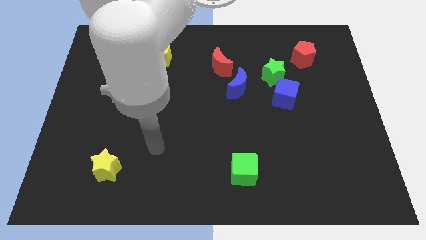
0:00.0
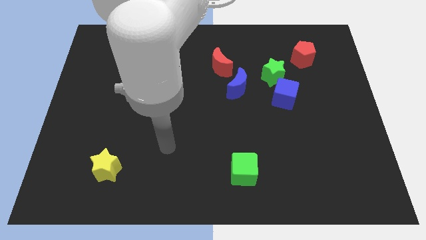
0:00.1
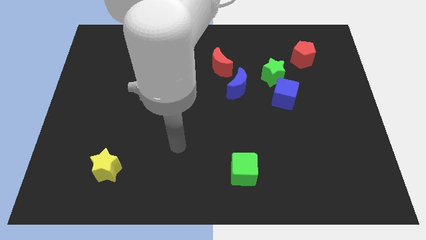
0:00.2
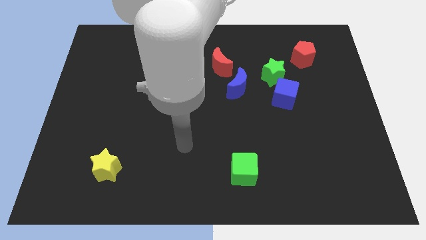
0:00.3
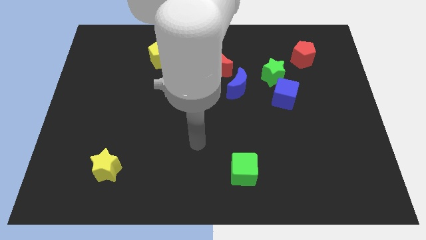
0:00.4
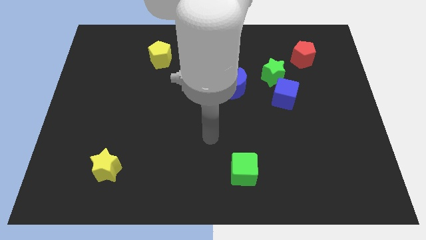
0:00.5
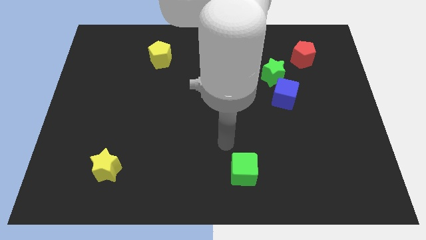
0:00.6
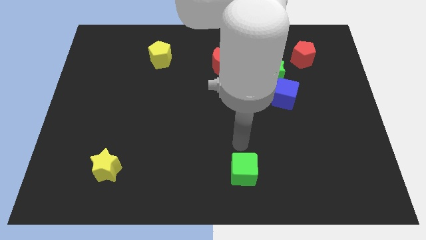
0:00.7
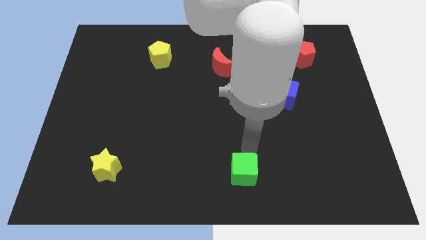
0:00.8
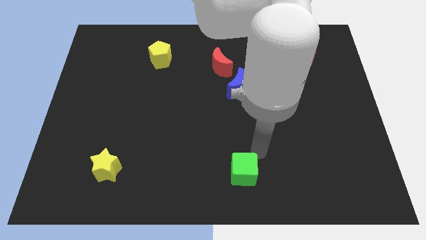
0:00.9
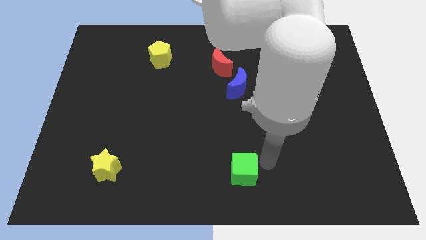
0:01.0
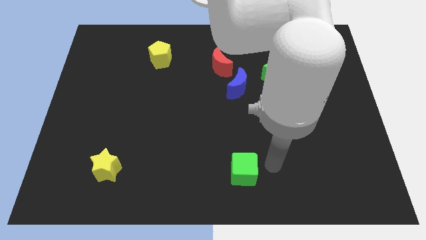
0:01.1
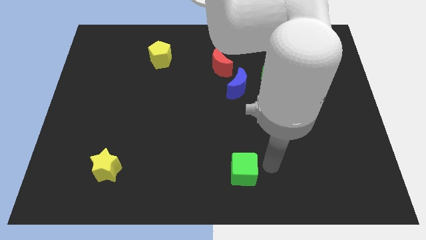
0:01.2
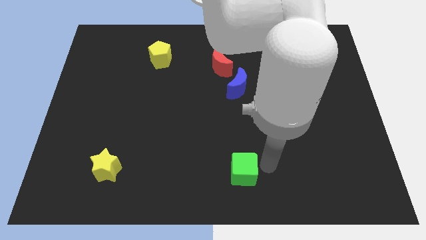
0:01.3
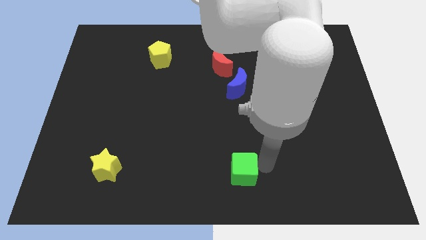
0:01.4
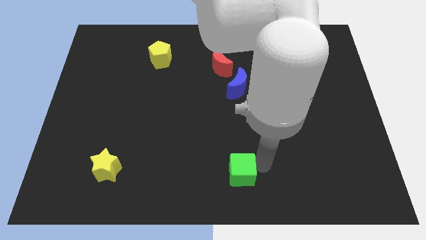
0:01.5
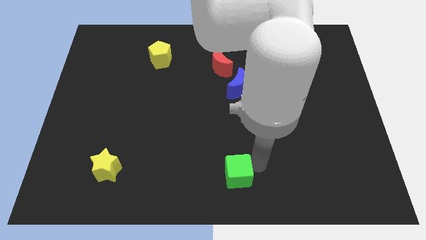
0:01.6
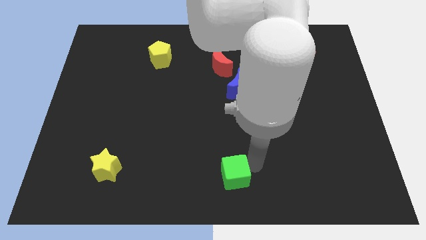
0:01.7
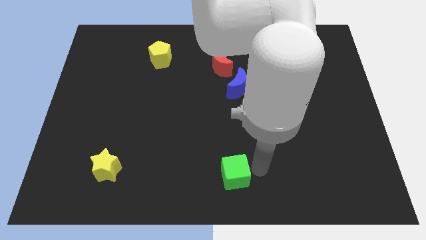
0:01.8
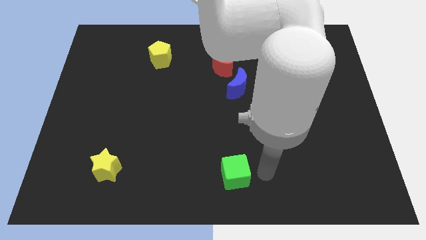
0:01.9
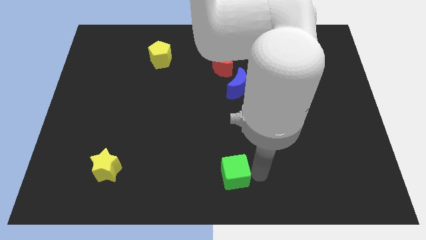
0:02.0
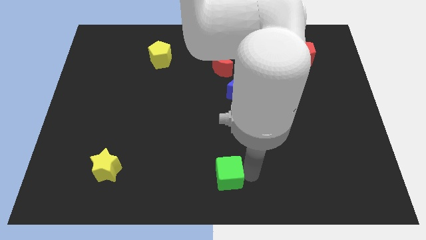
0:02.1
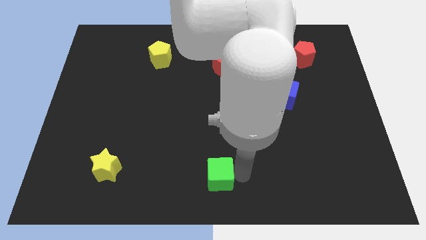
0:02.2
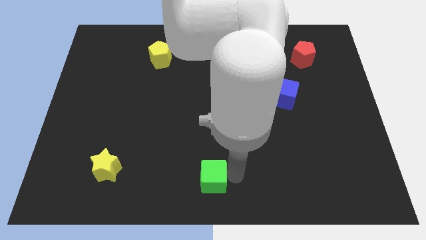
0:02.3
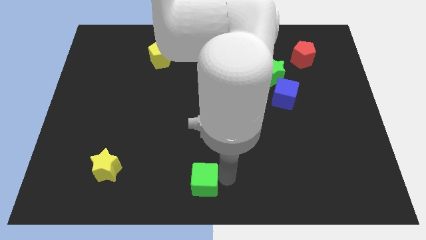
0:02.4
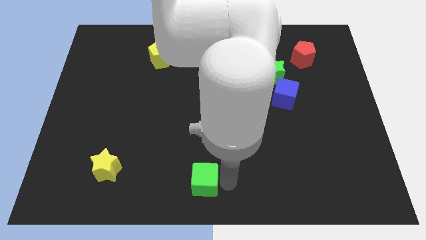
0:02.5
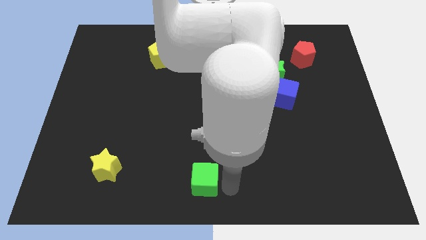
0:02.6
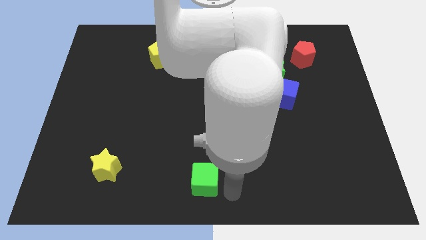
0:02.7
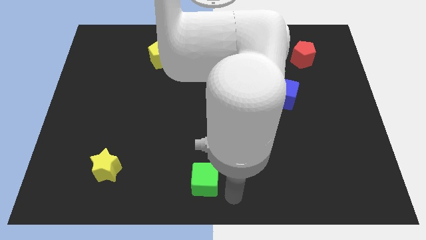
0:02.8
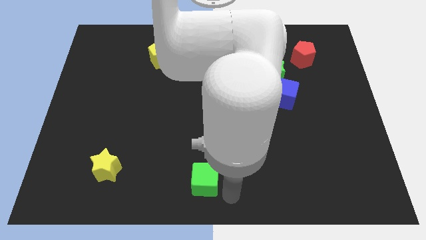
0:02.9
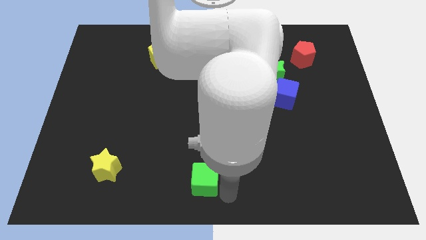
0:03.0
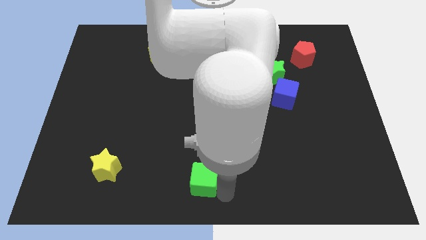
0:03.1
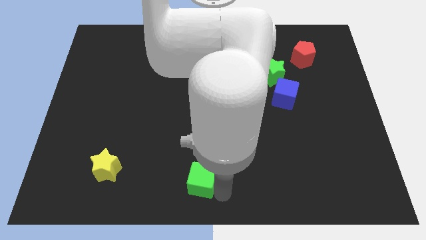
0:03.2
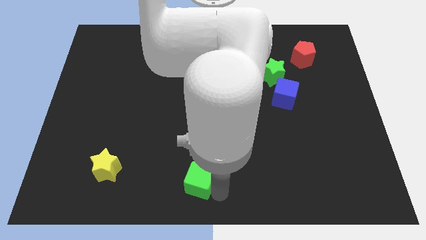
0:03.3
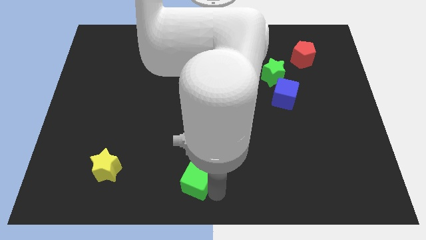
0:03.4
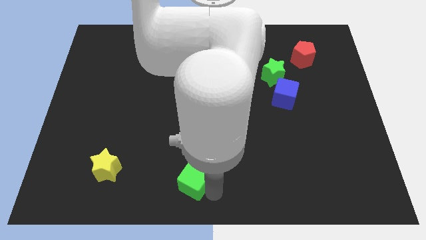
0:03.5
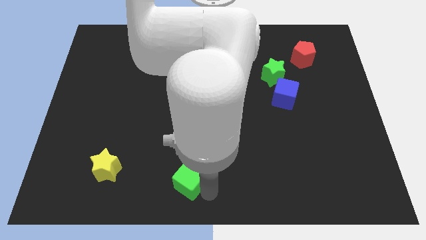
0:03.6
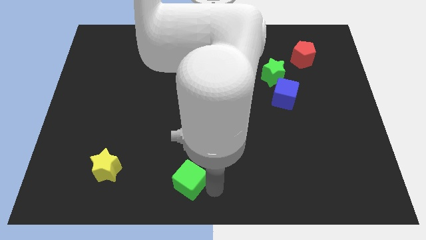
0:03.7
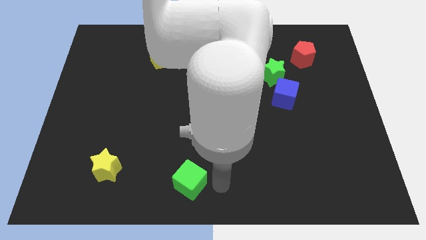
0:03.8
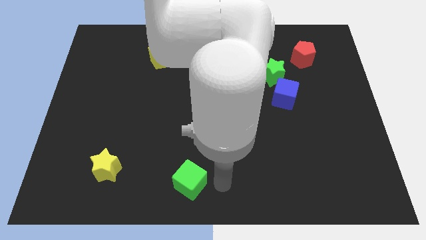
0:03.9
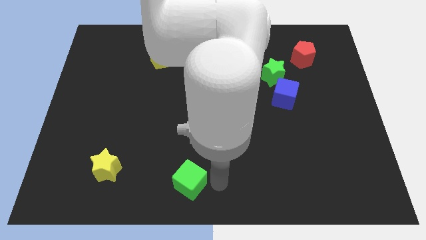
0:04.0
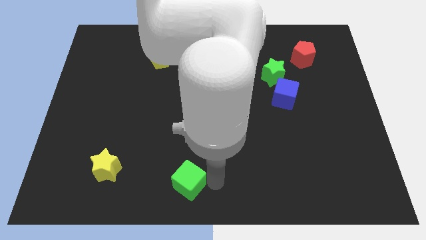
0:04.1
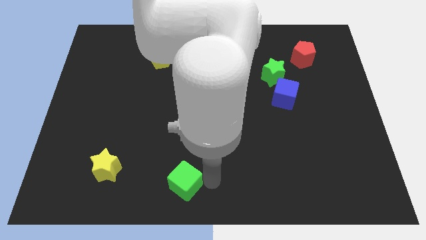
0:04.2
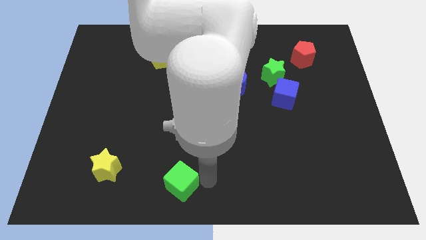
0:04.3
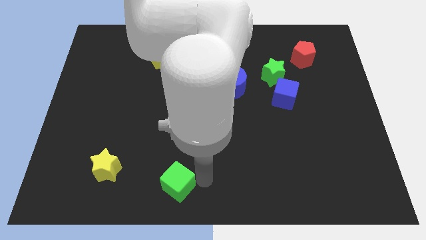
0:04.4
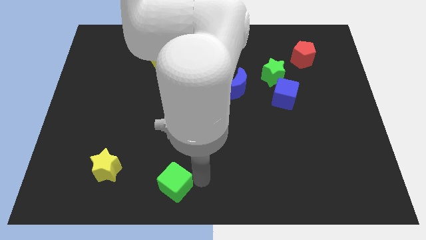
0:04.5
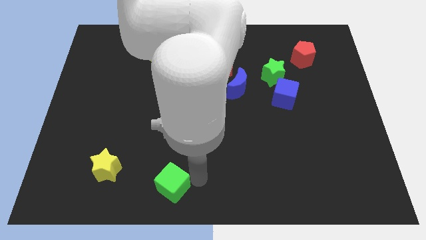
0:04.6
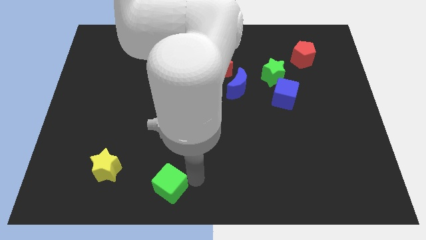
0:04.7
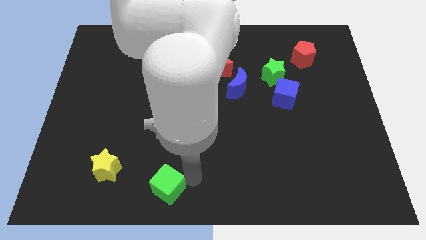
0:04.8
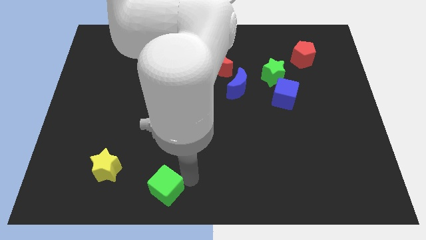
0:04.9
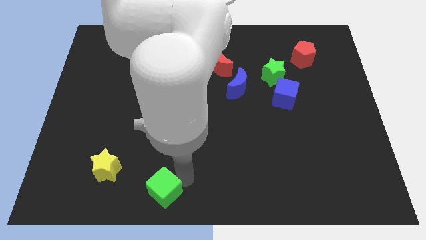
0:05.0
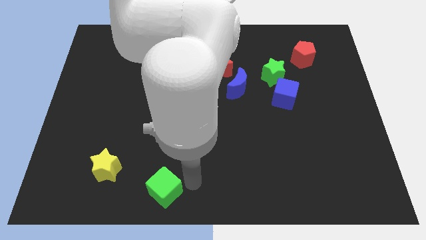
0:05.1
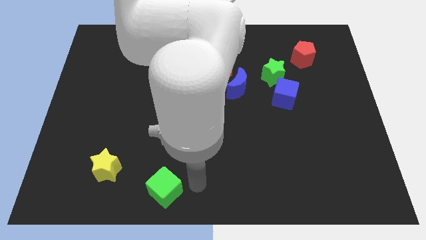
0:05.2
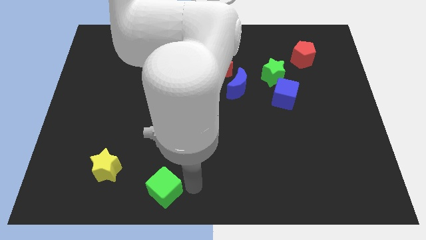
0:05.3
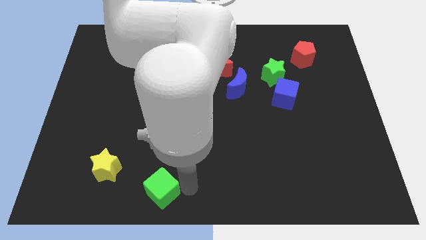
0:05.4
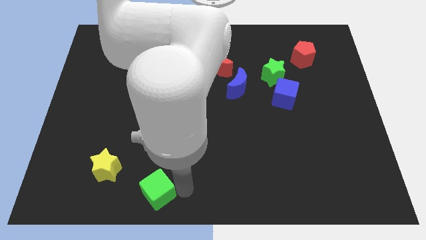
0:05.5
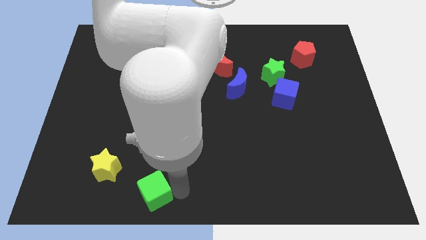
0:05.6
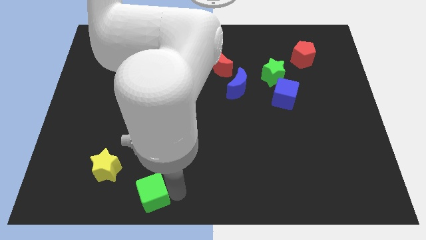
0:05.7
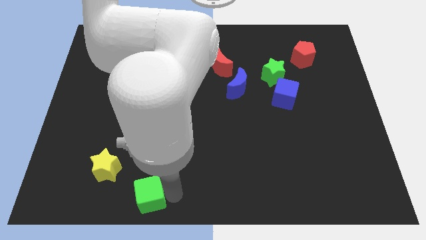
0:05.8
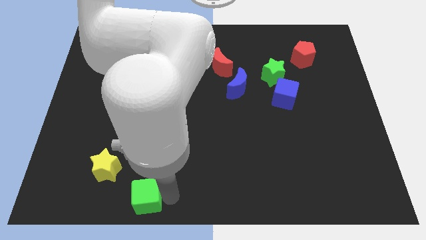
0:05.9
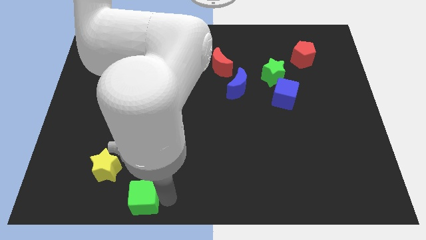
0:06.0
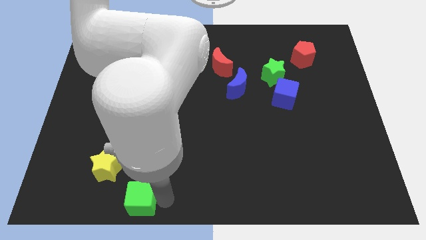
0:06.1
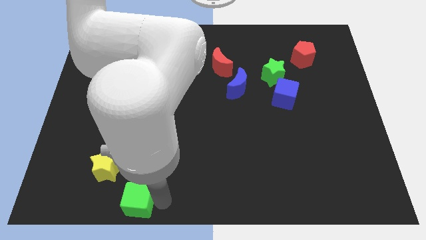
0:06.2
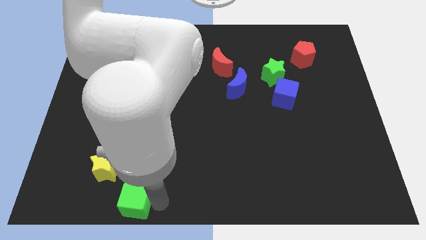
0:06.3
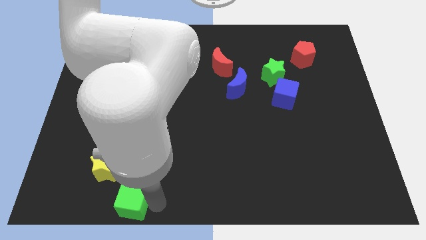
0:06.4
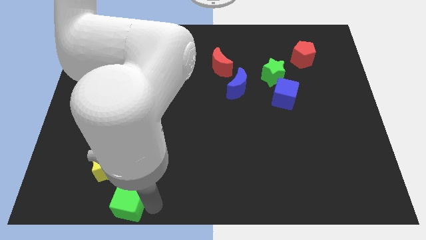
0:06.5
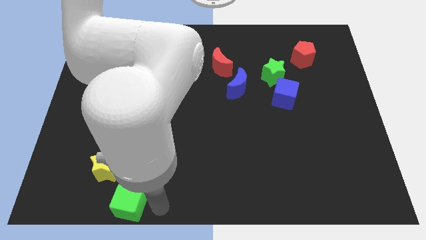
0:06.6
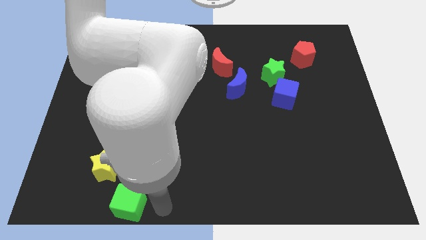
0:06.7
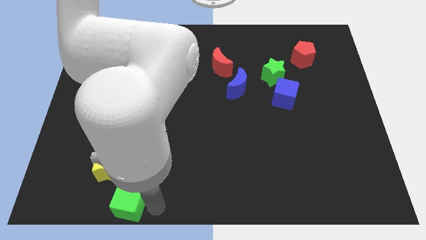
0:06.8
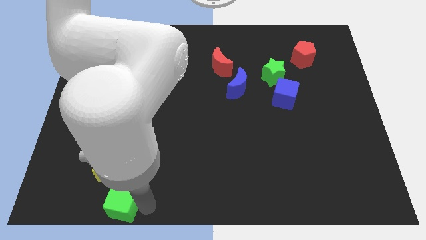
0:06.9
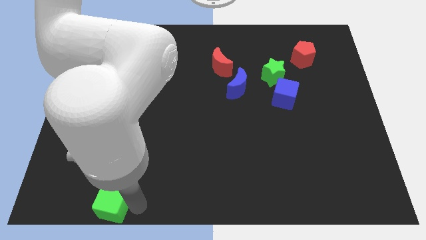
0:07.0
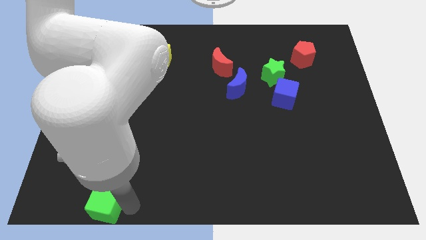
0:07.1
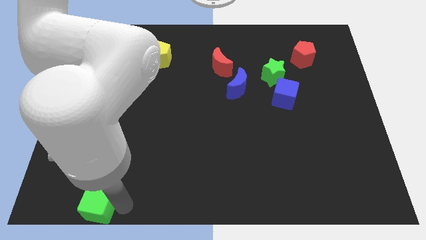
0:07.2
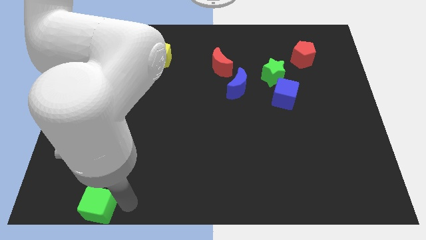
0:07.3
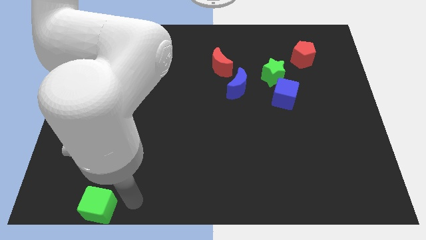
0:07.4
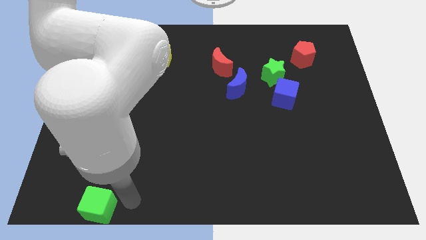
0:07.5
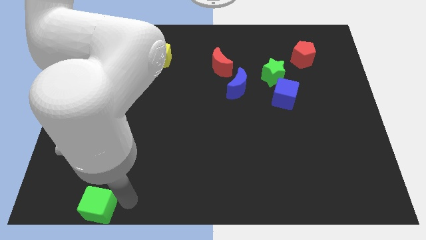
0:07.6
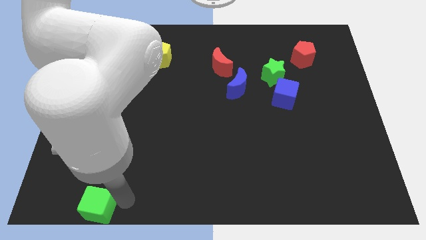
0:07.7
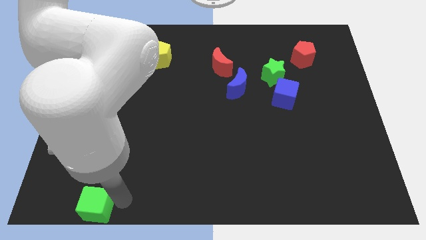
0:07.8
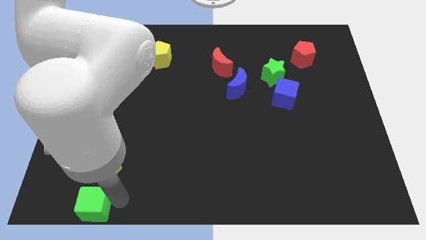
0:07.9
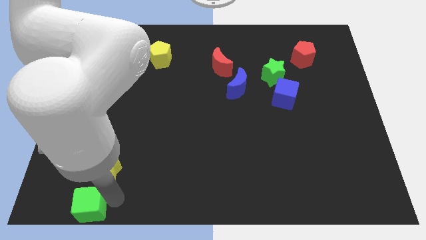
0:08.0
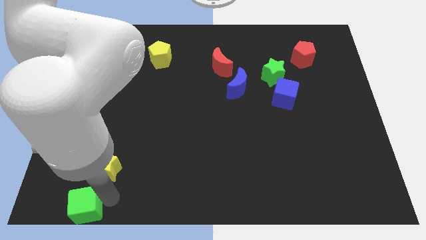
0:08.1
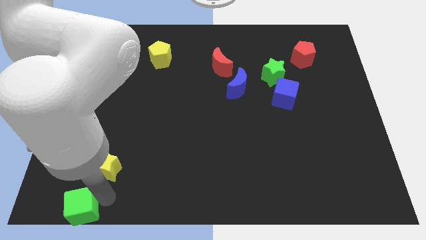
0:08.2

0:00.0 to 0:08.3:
slide the green cube to the bottom left corner
